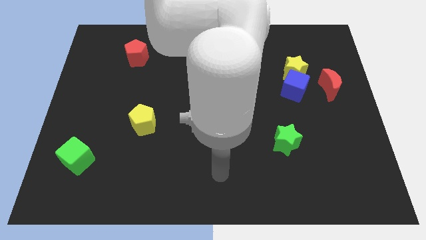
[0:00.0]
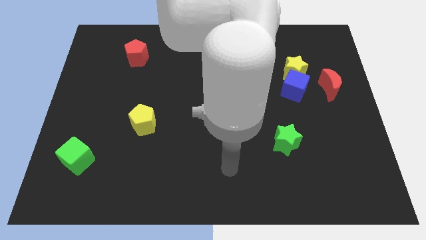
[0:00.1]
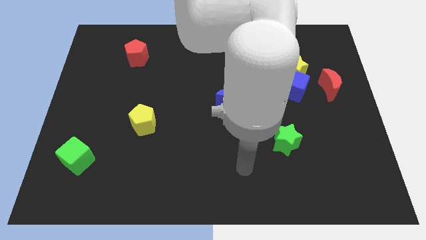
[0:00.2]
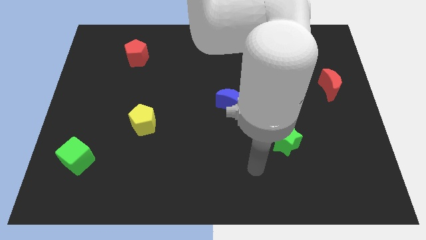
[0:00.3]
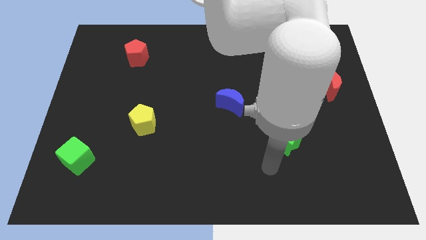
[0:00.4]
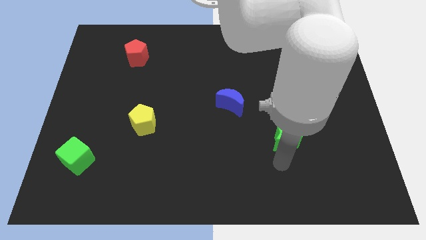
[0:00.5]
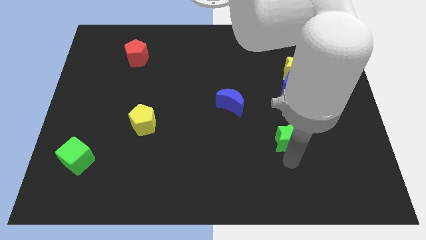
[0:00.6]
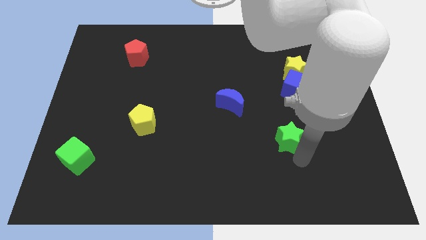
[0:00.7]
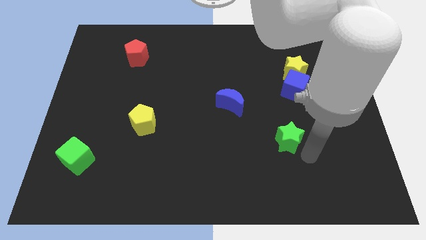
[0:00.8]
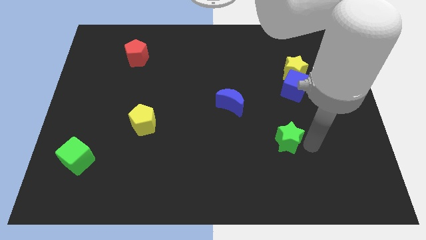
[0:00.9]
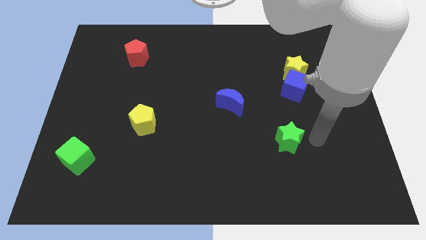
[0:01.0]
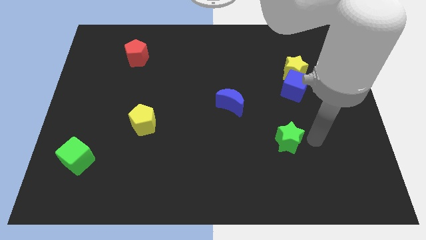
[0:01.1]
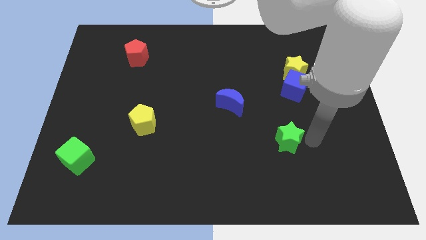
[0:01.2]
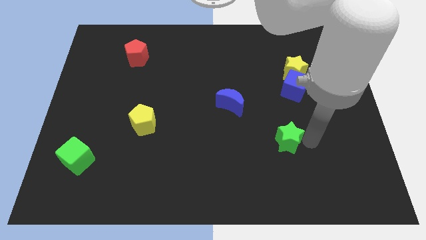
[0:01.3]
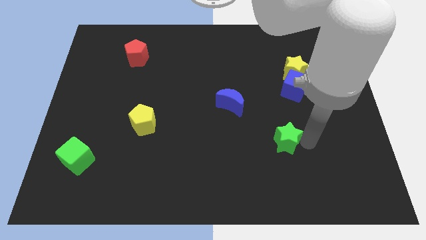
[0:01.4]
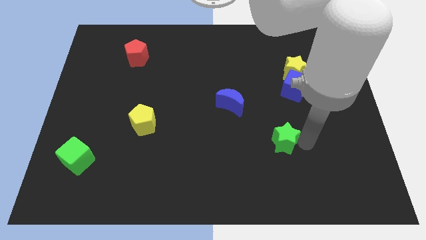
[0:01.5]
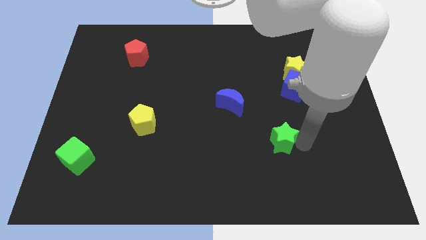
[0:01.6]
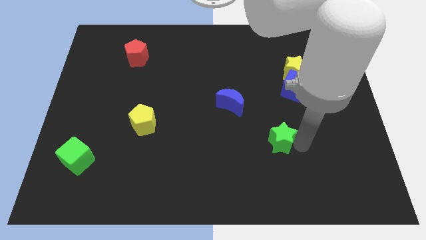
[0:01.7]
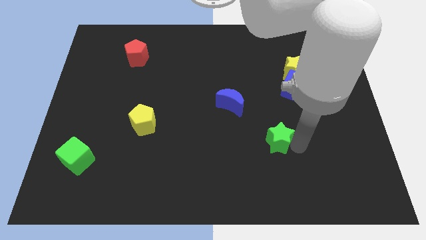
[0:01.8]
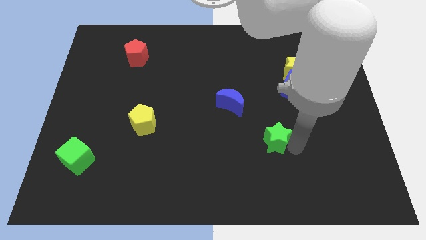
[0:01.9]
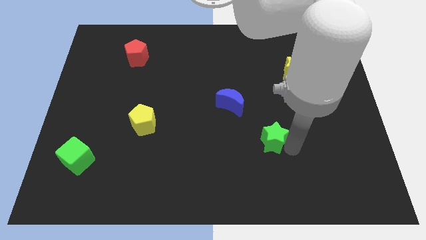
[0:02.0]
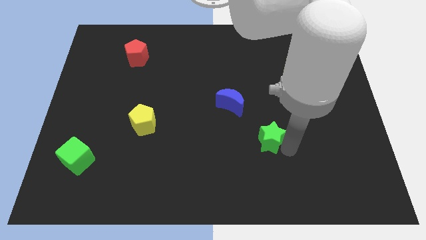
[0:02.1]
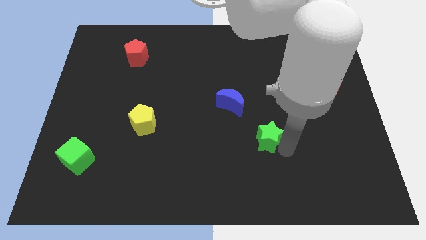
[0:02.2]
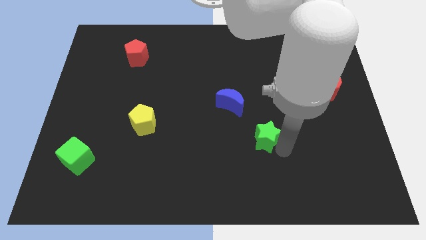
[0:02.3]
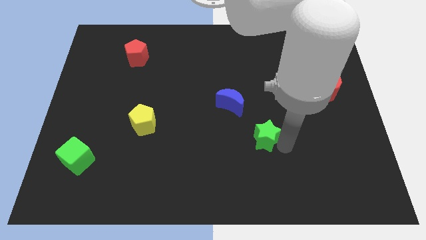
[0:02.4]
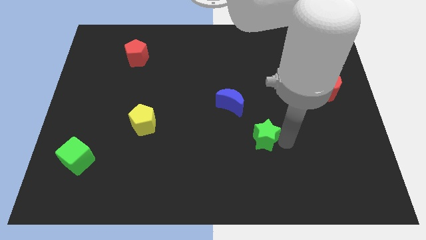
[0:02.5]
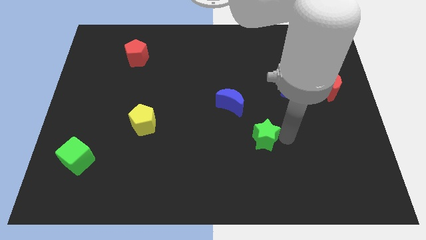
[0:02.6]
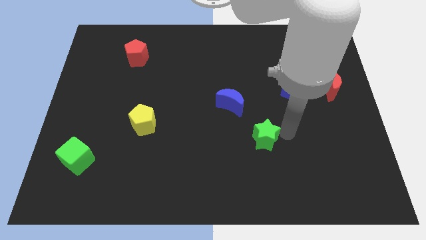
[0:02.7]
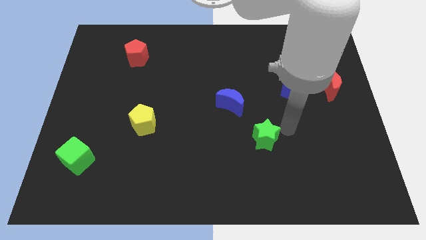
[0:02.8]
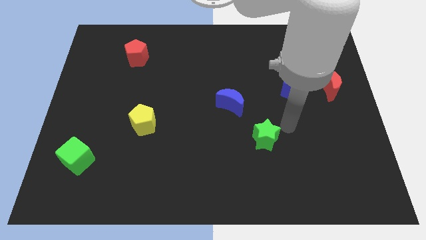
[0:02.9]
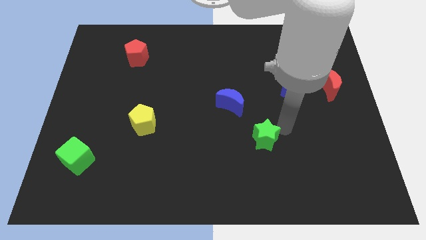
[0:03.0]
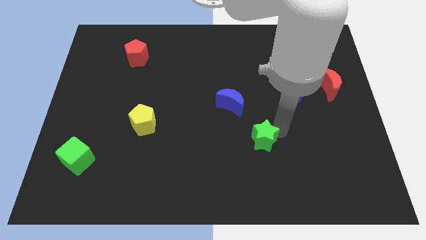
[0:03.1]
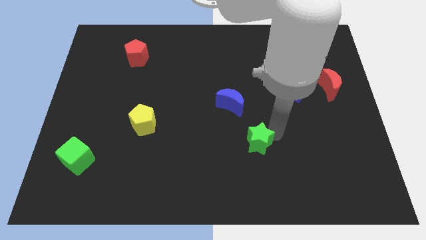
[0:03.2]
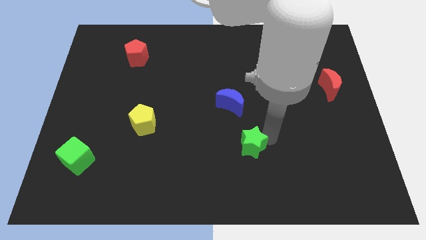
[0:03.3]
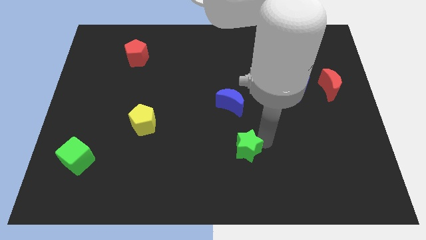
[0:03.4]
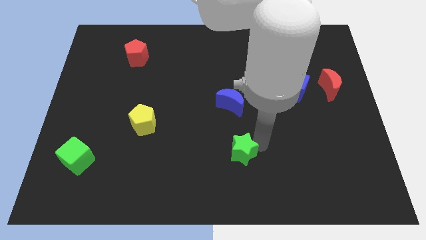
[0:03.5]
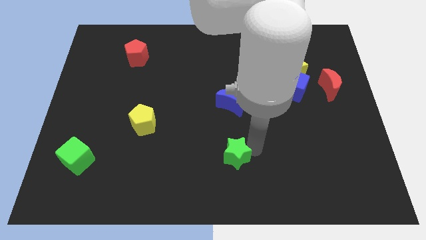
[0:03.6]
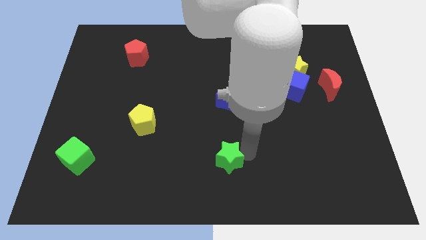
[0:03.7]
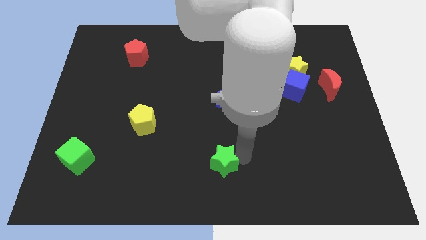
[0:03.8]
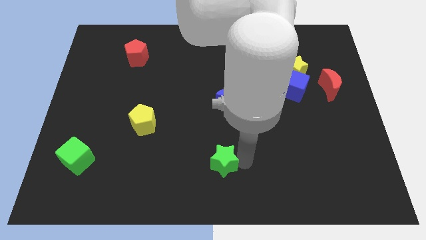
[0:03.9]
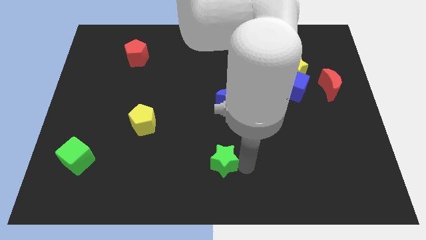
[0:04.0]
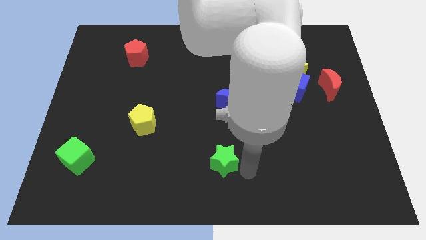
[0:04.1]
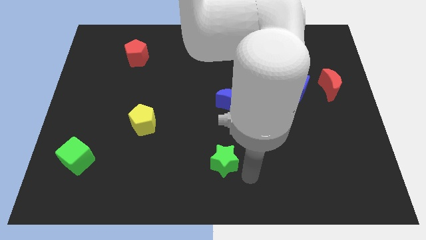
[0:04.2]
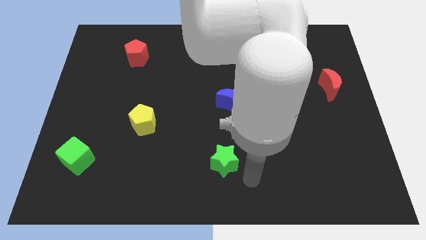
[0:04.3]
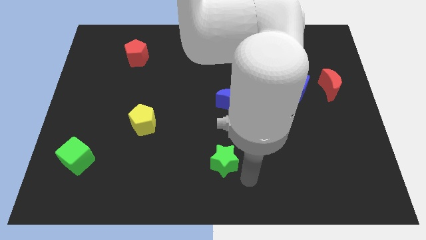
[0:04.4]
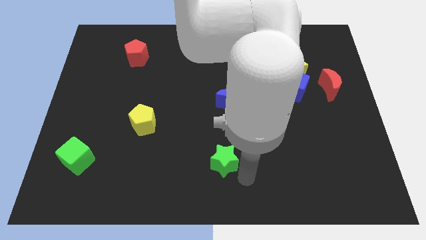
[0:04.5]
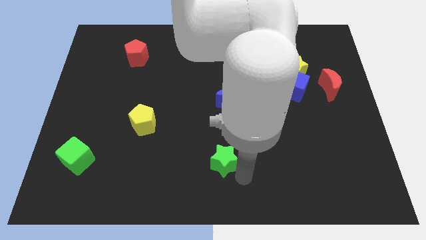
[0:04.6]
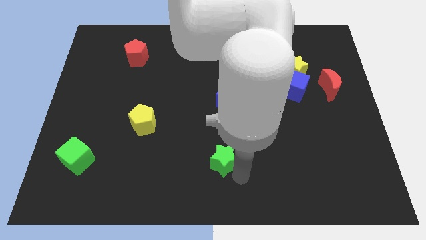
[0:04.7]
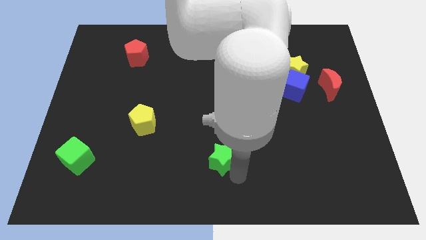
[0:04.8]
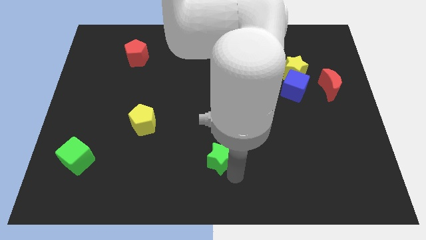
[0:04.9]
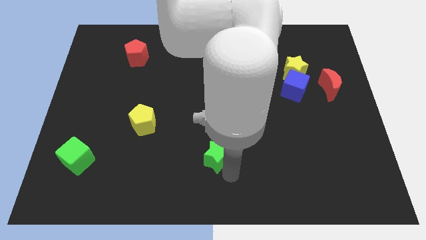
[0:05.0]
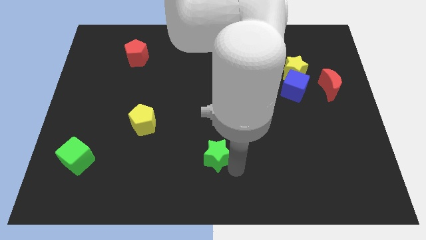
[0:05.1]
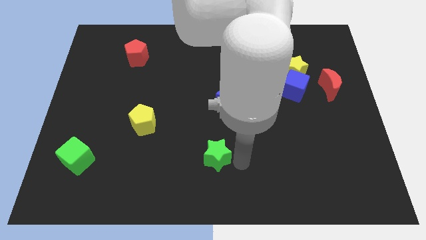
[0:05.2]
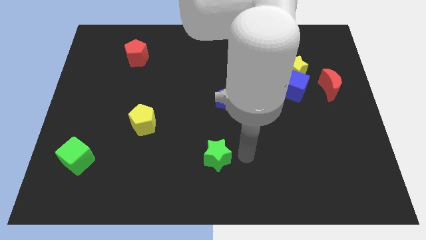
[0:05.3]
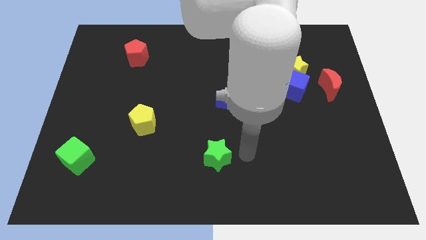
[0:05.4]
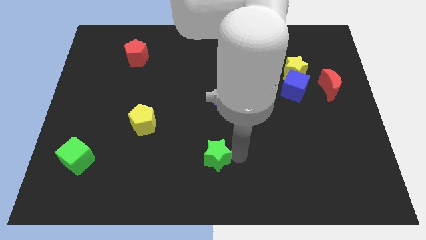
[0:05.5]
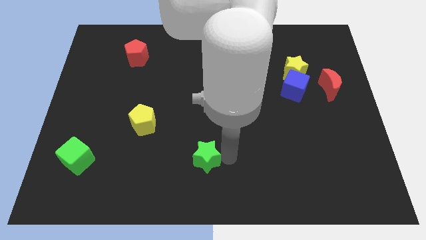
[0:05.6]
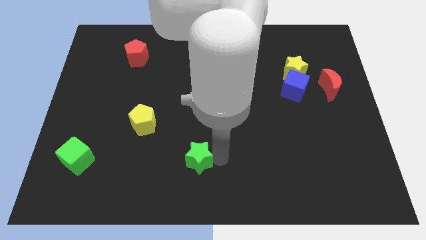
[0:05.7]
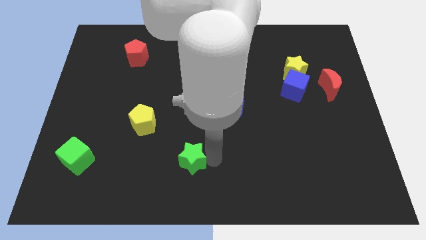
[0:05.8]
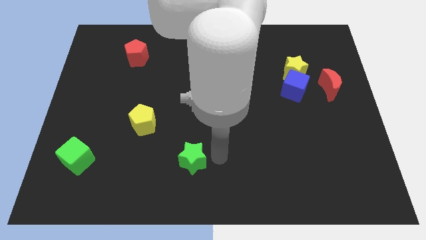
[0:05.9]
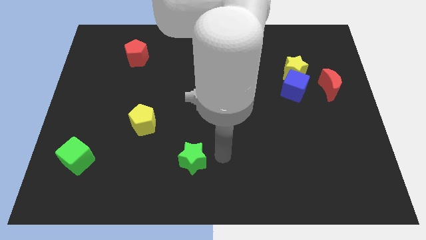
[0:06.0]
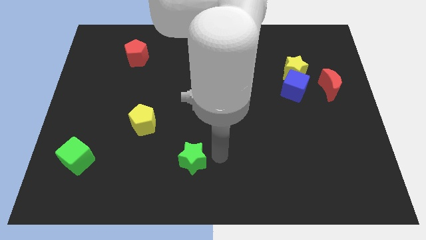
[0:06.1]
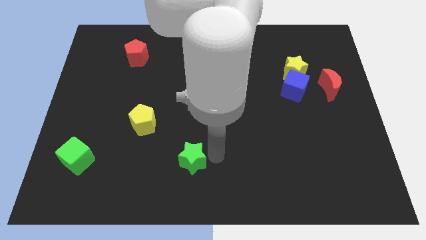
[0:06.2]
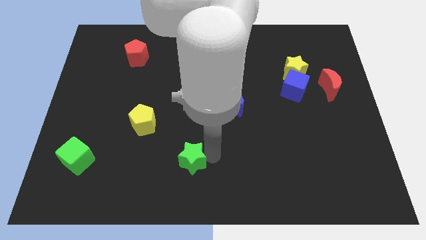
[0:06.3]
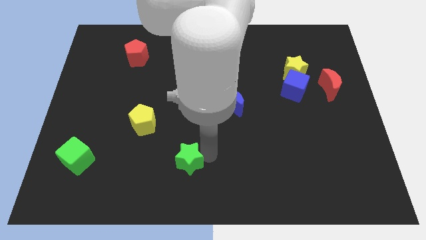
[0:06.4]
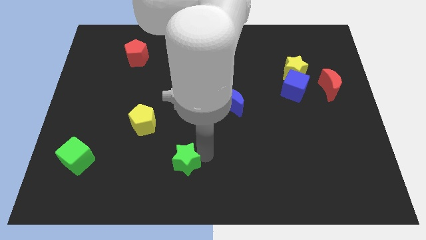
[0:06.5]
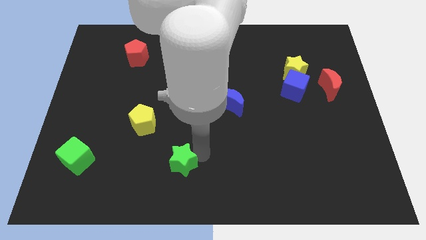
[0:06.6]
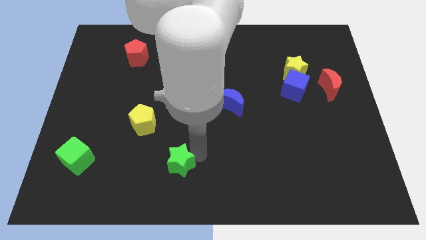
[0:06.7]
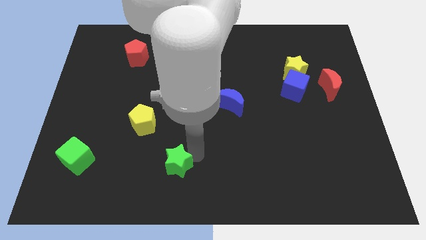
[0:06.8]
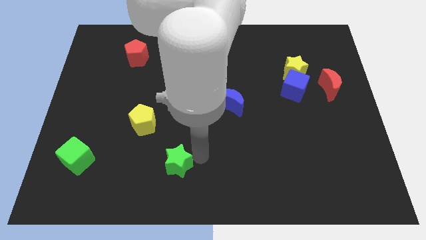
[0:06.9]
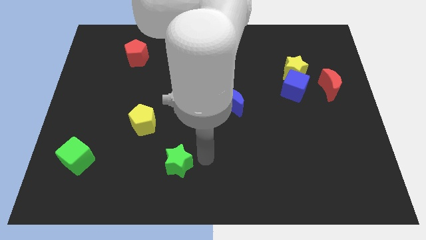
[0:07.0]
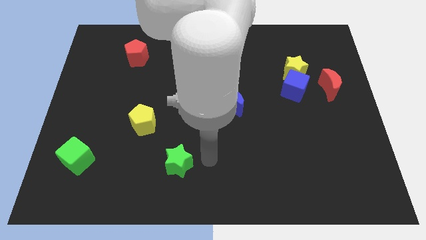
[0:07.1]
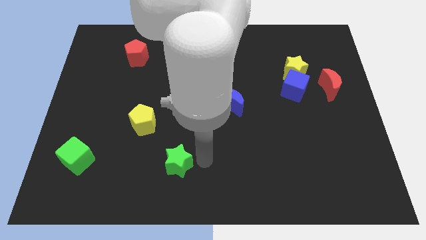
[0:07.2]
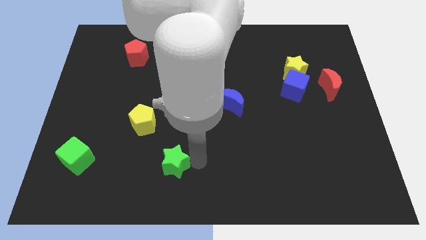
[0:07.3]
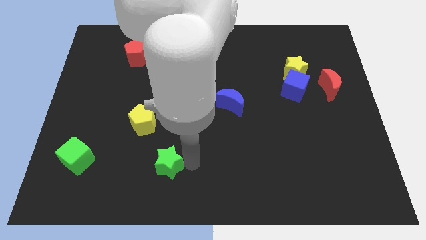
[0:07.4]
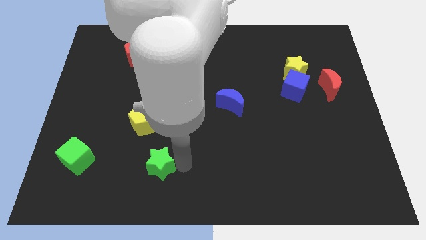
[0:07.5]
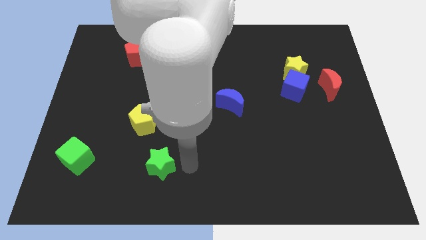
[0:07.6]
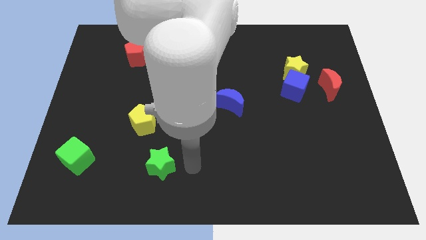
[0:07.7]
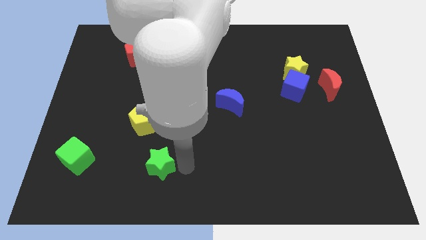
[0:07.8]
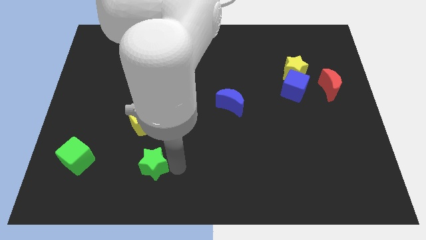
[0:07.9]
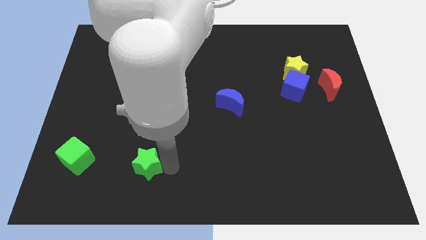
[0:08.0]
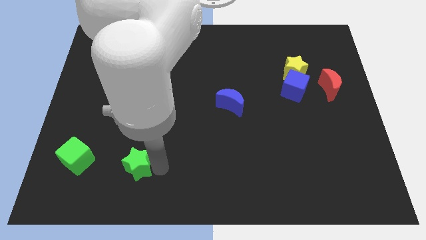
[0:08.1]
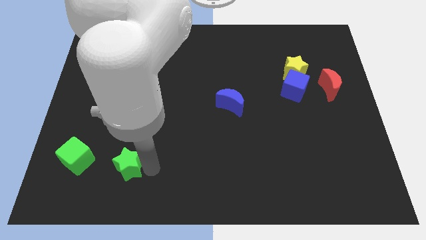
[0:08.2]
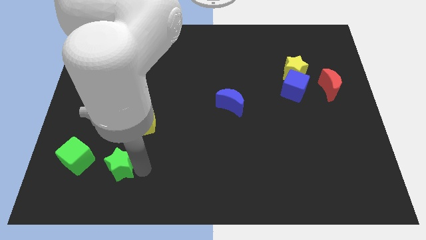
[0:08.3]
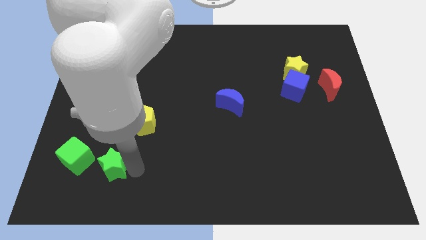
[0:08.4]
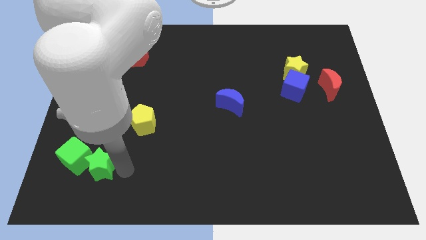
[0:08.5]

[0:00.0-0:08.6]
put the green star close to the green cube
